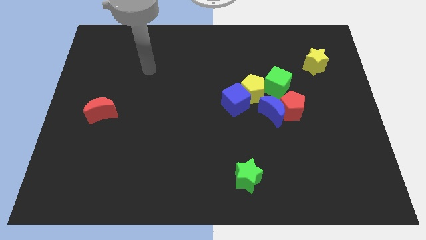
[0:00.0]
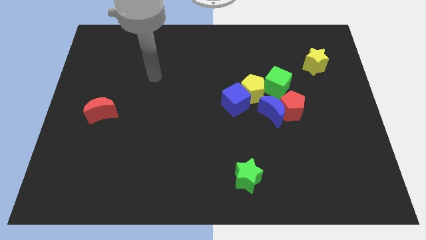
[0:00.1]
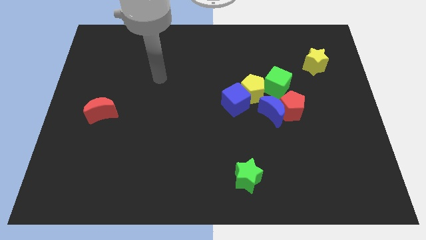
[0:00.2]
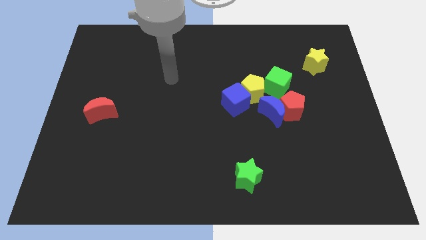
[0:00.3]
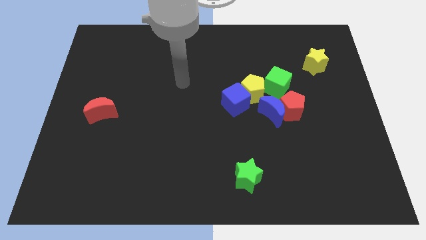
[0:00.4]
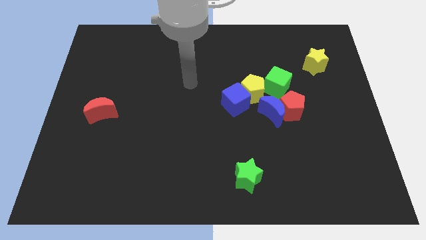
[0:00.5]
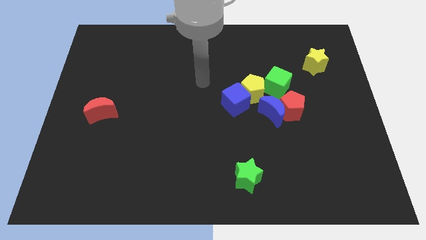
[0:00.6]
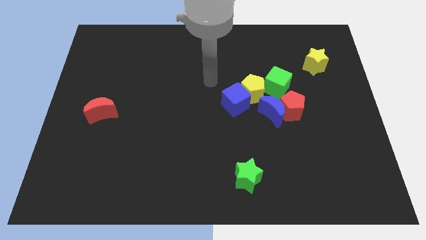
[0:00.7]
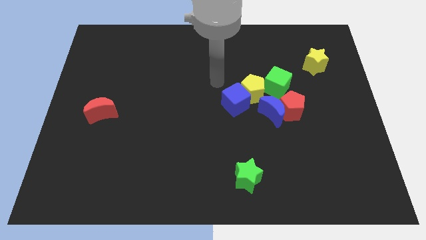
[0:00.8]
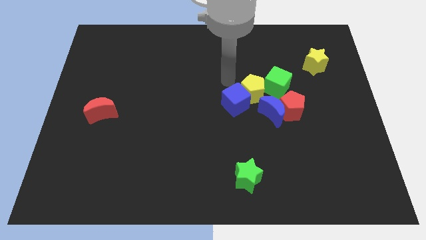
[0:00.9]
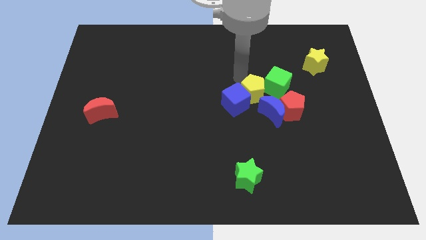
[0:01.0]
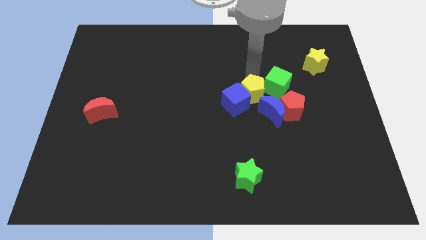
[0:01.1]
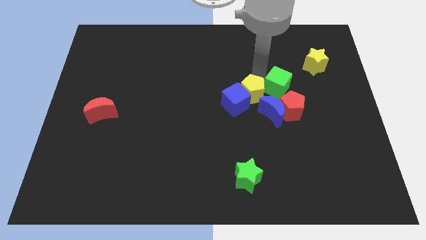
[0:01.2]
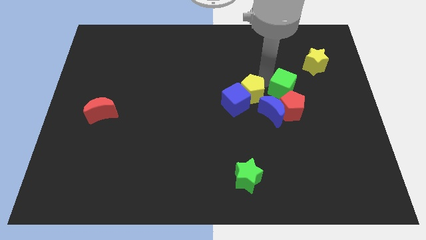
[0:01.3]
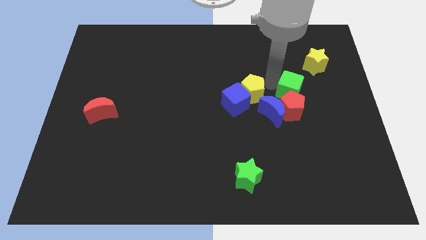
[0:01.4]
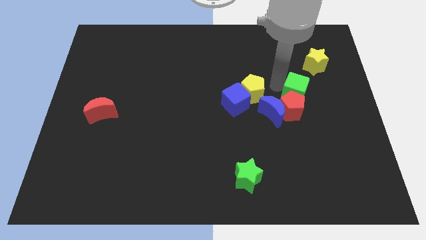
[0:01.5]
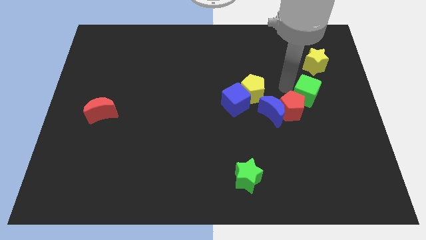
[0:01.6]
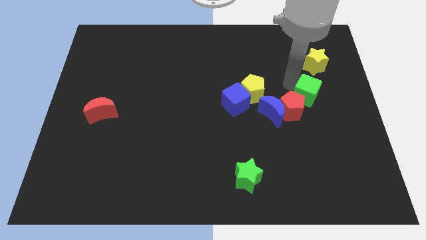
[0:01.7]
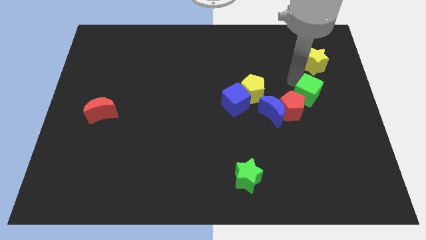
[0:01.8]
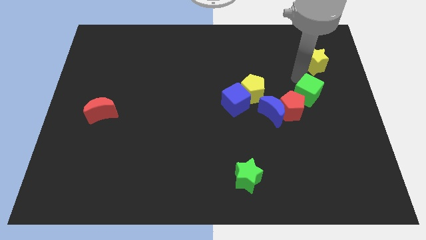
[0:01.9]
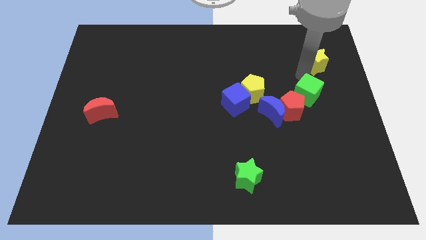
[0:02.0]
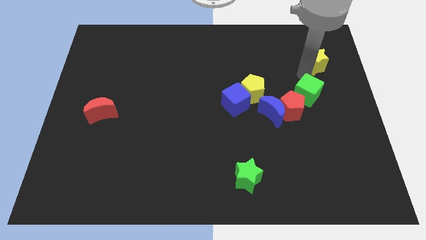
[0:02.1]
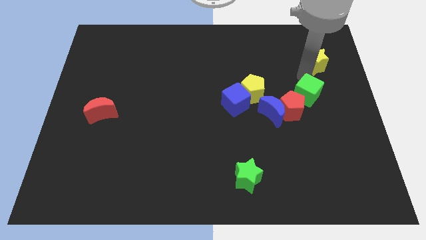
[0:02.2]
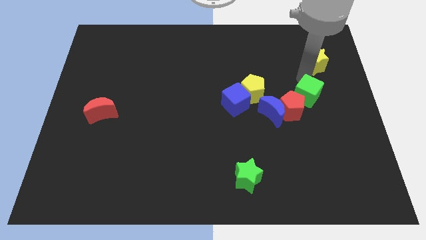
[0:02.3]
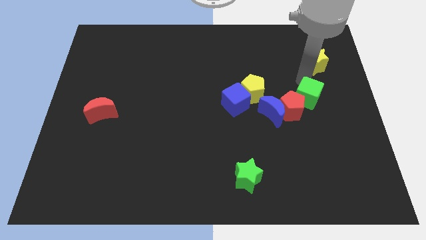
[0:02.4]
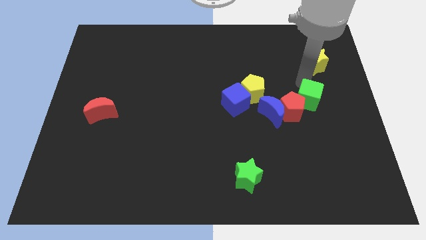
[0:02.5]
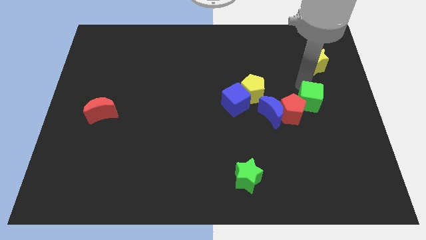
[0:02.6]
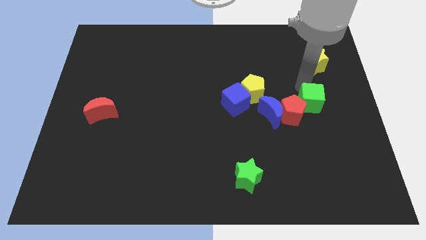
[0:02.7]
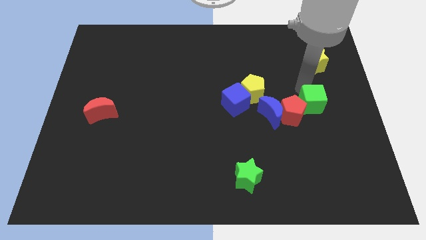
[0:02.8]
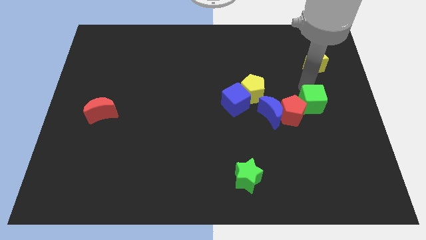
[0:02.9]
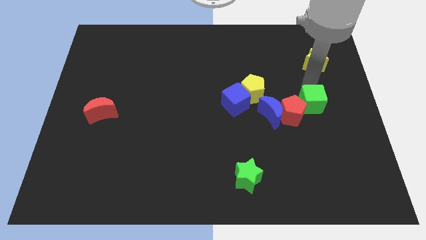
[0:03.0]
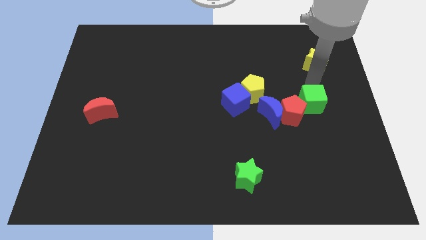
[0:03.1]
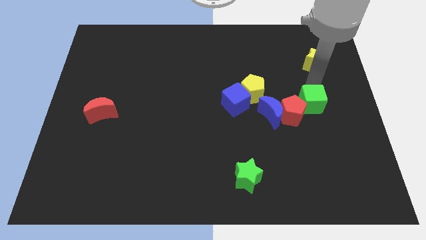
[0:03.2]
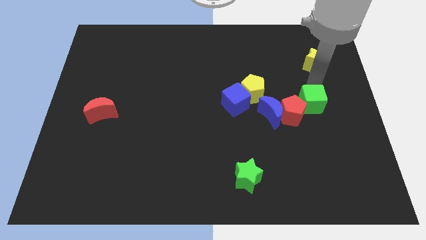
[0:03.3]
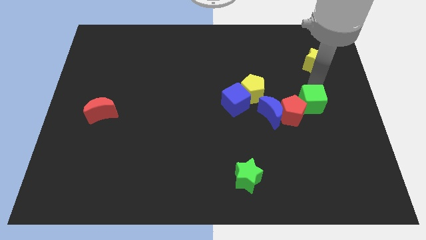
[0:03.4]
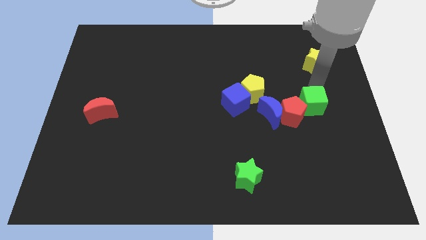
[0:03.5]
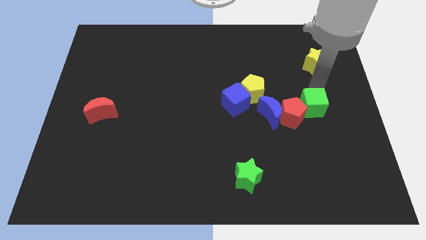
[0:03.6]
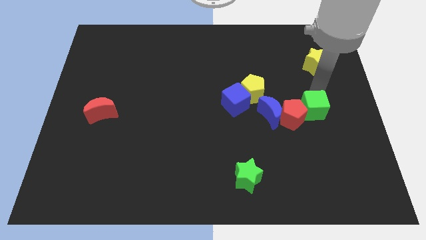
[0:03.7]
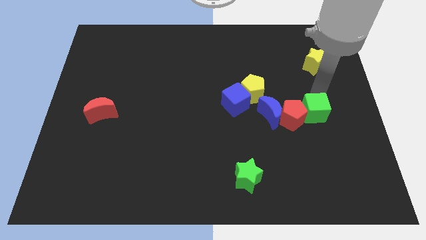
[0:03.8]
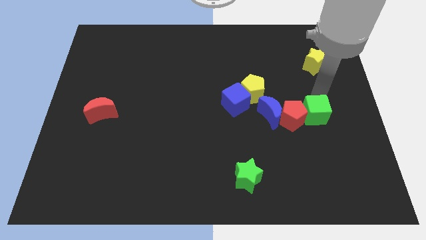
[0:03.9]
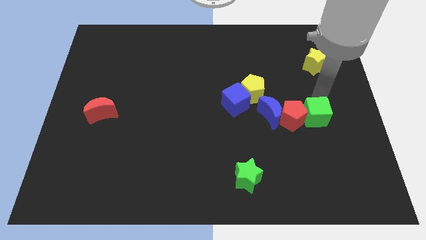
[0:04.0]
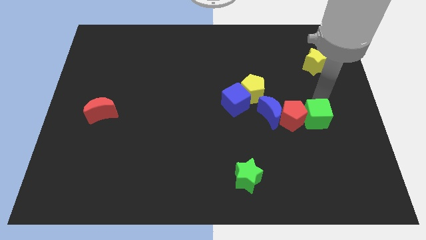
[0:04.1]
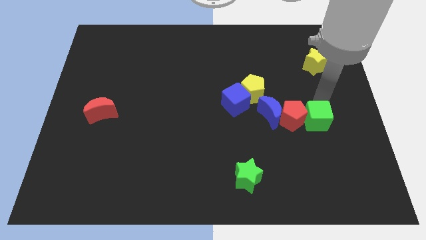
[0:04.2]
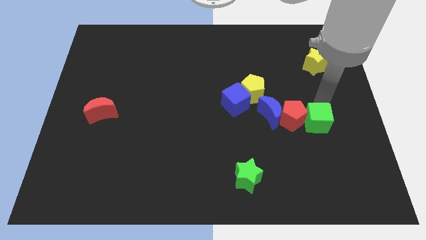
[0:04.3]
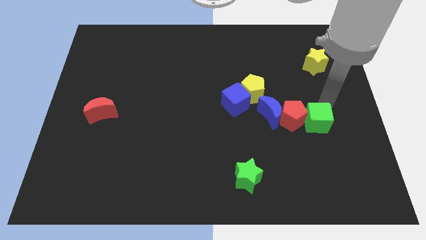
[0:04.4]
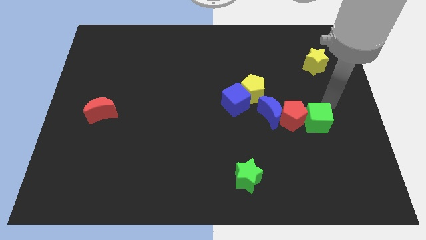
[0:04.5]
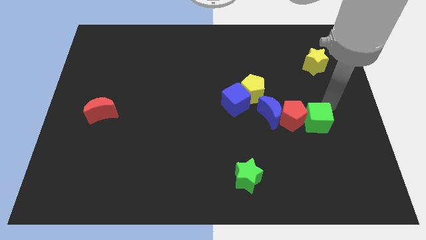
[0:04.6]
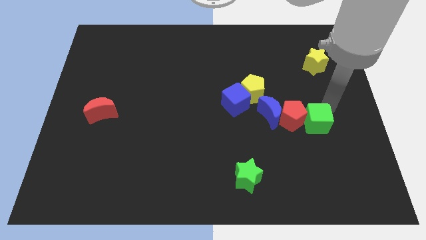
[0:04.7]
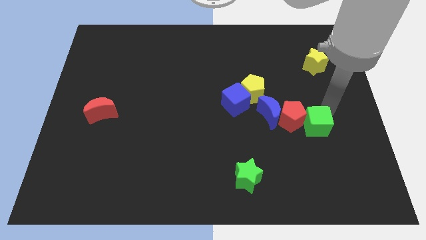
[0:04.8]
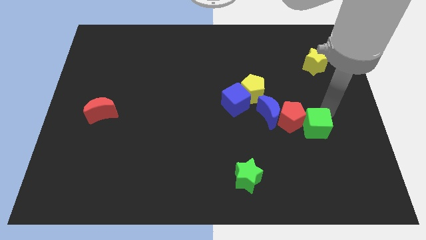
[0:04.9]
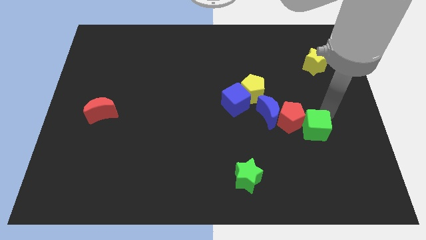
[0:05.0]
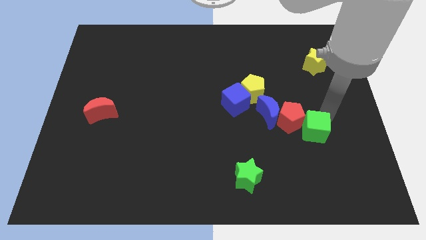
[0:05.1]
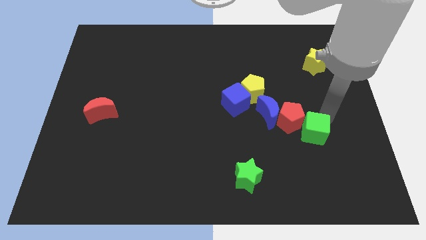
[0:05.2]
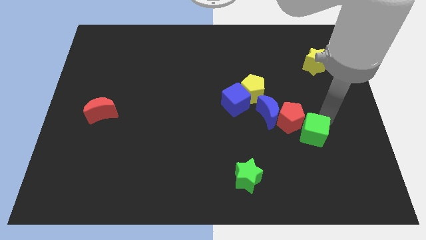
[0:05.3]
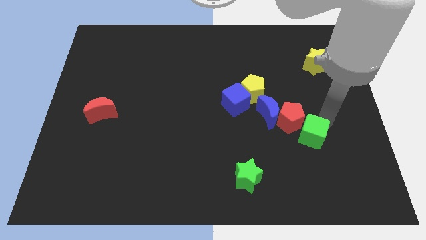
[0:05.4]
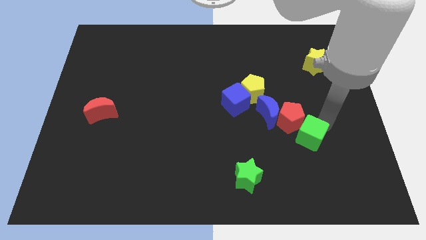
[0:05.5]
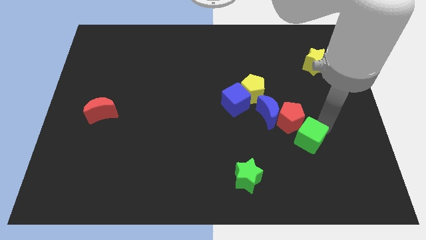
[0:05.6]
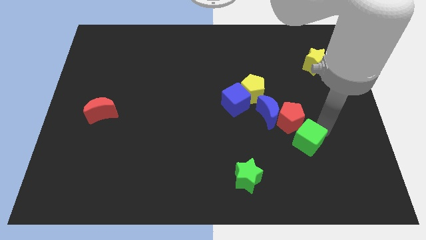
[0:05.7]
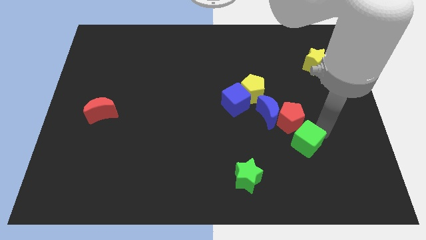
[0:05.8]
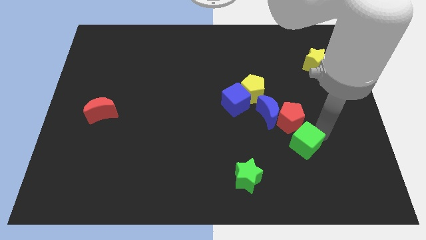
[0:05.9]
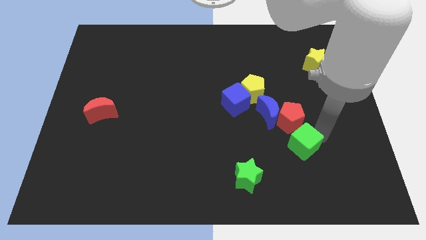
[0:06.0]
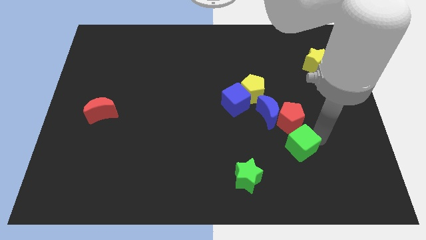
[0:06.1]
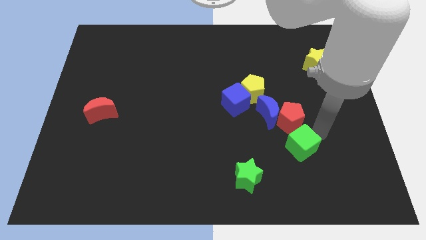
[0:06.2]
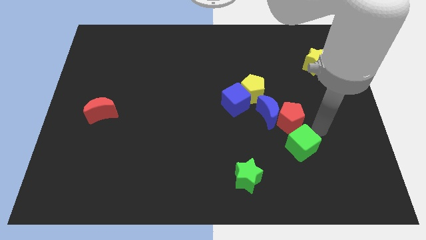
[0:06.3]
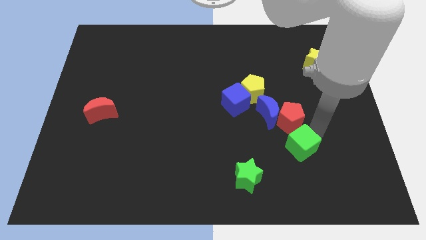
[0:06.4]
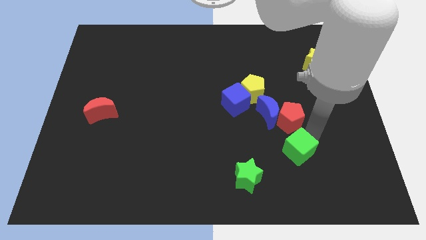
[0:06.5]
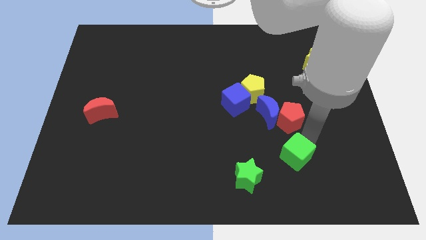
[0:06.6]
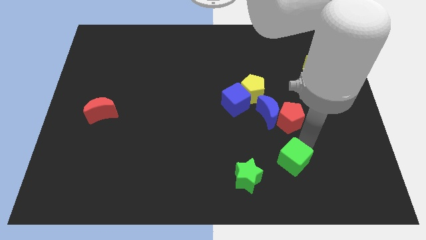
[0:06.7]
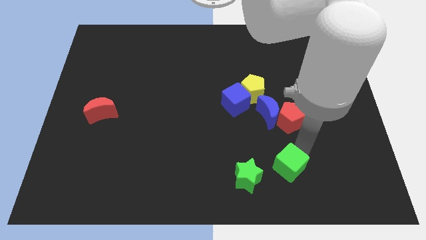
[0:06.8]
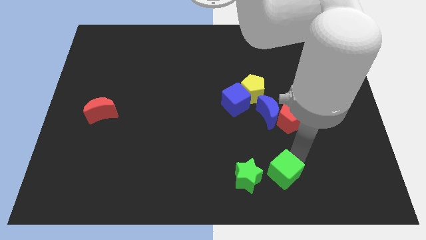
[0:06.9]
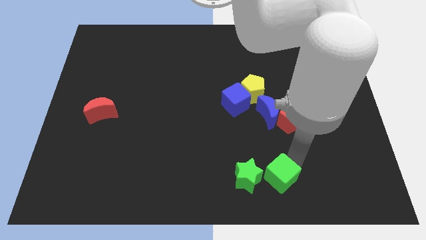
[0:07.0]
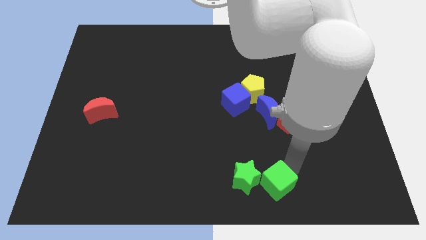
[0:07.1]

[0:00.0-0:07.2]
push the green cube close to the green star

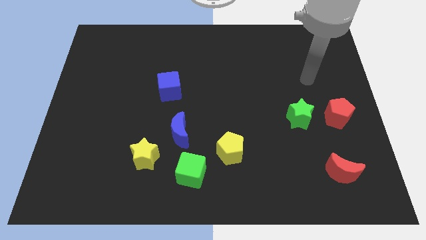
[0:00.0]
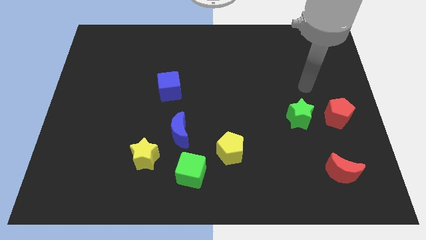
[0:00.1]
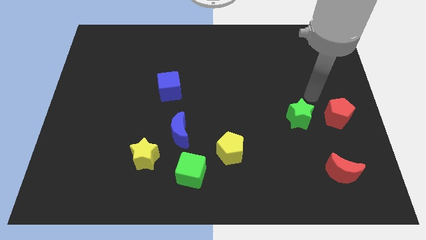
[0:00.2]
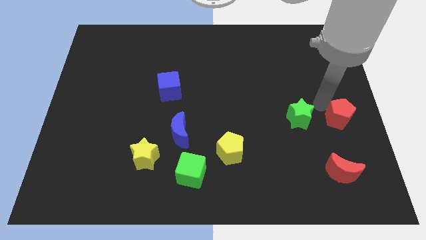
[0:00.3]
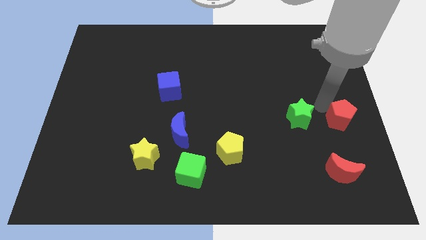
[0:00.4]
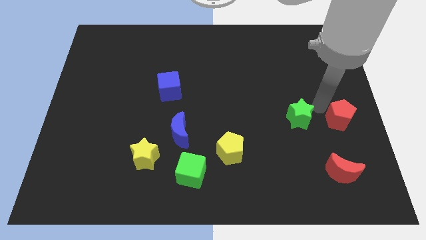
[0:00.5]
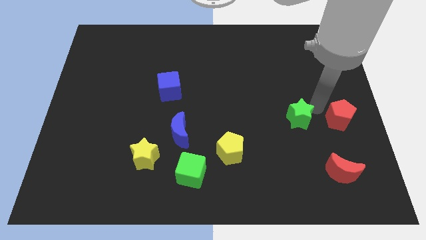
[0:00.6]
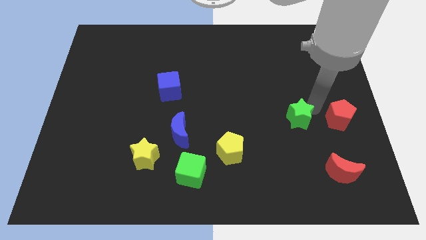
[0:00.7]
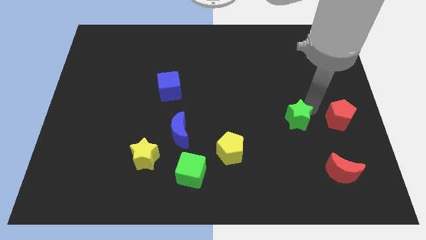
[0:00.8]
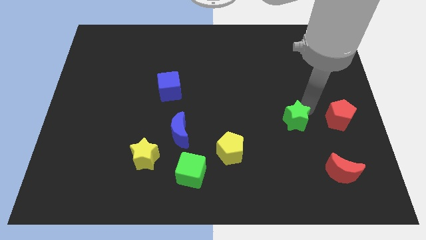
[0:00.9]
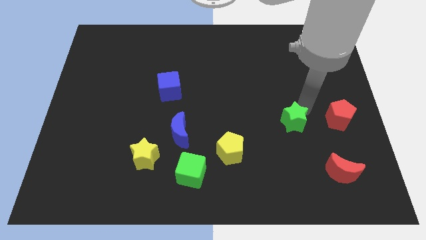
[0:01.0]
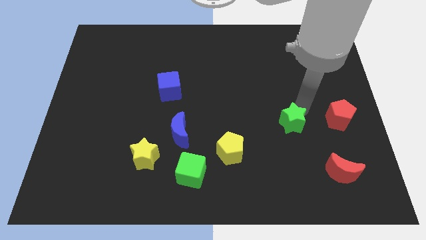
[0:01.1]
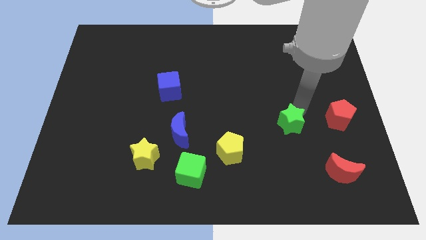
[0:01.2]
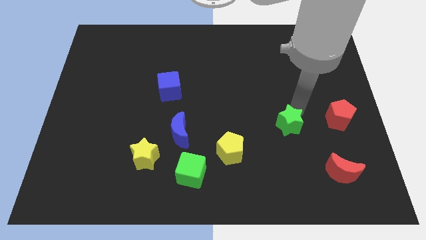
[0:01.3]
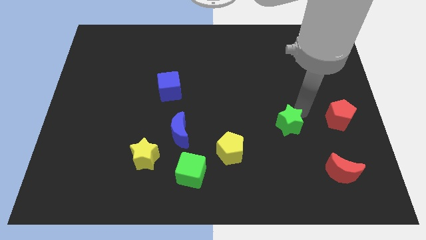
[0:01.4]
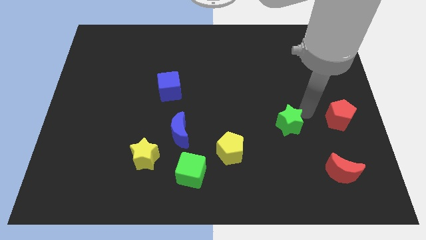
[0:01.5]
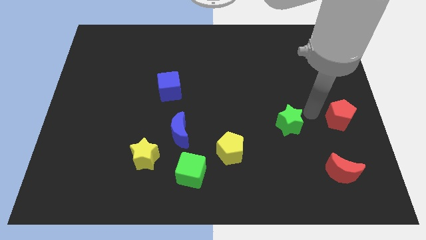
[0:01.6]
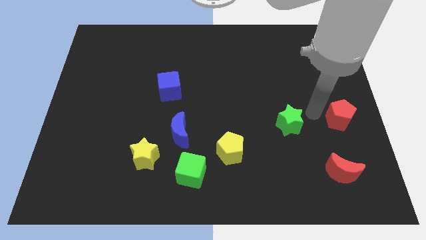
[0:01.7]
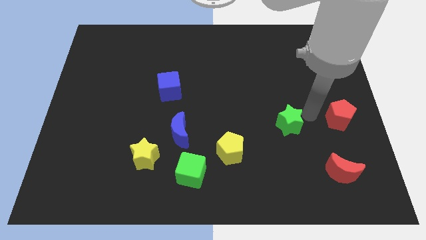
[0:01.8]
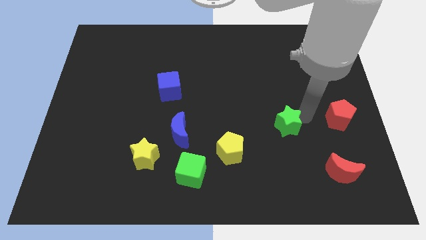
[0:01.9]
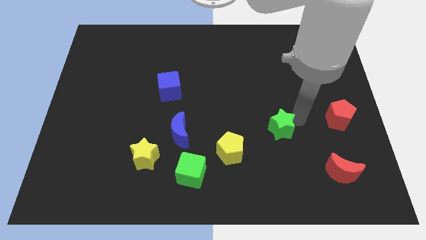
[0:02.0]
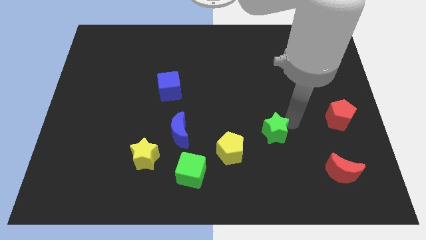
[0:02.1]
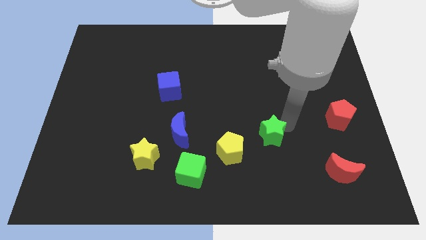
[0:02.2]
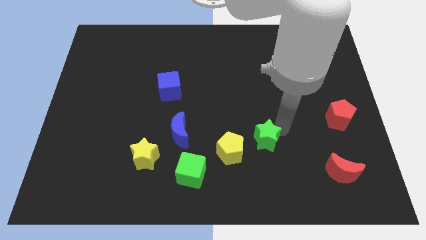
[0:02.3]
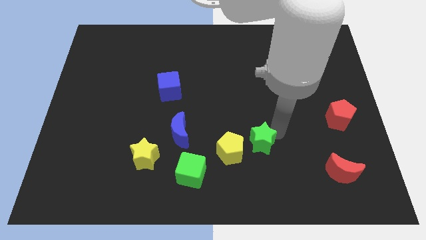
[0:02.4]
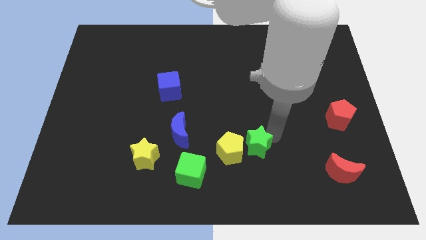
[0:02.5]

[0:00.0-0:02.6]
push the green star to the yellow pentagon
